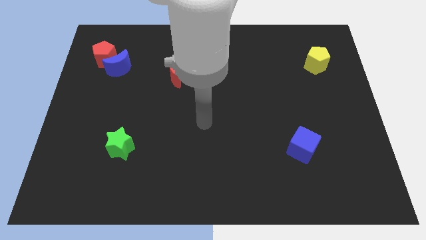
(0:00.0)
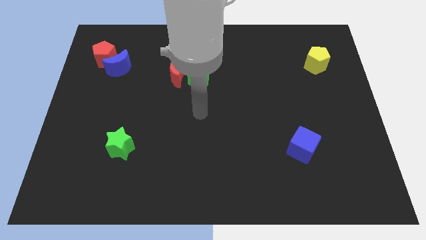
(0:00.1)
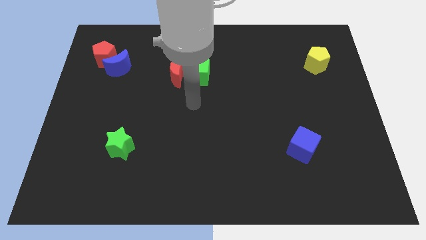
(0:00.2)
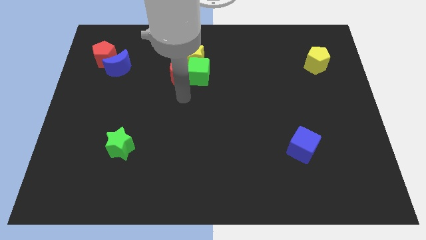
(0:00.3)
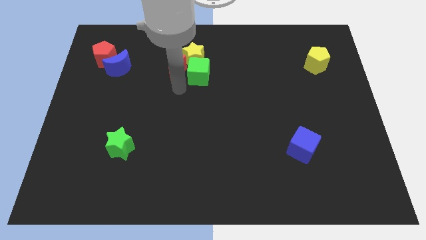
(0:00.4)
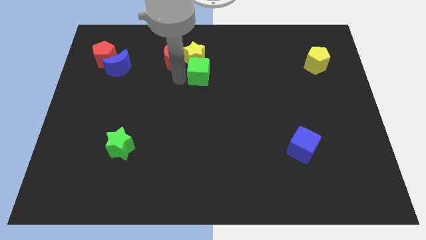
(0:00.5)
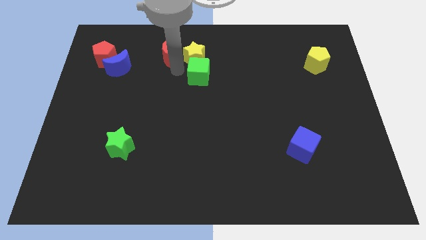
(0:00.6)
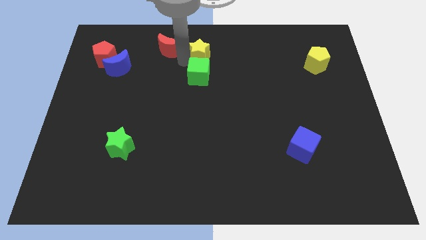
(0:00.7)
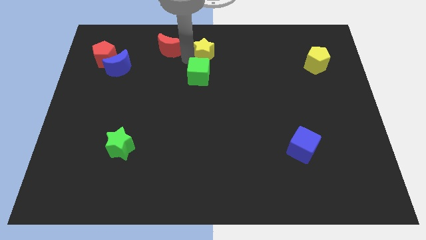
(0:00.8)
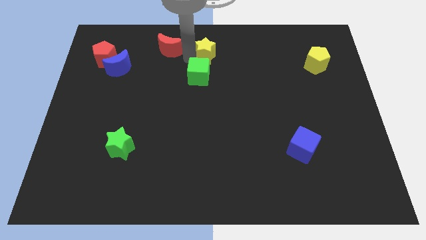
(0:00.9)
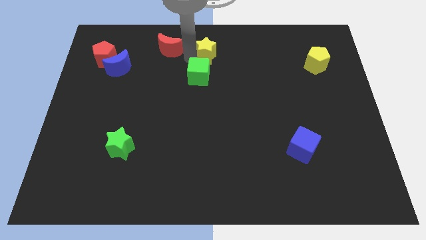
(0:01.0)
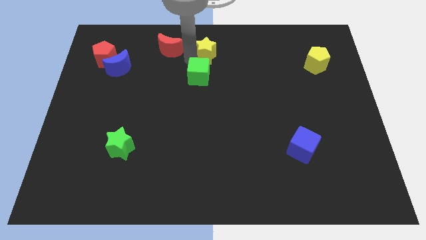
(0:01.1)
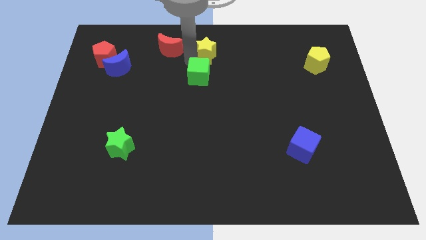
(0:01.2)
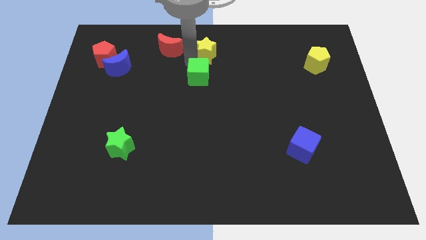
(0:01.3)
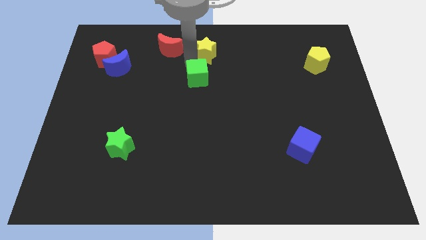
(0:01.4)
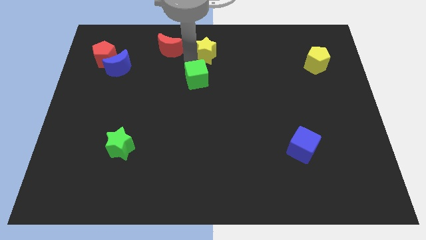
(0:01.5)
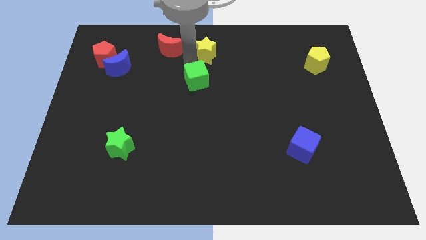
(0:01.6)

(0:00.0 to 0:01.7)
separate the green cube from the red moon and yellow star

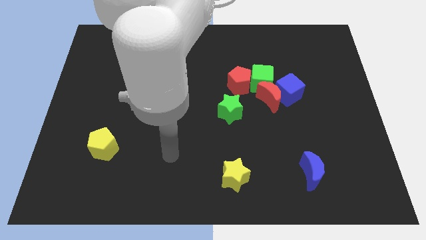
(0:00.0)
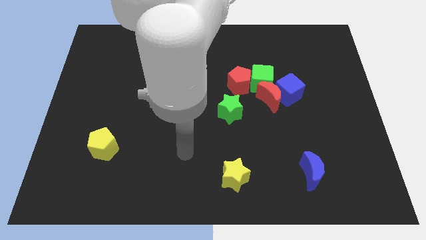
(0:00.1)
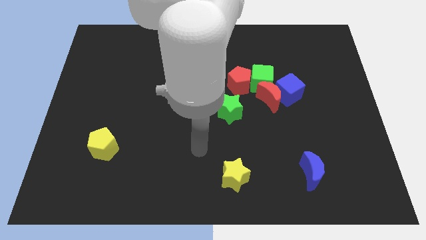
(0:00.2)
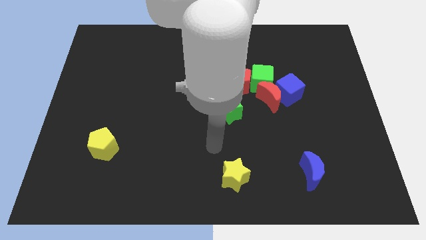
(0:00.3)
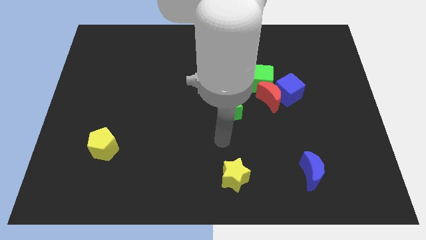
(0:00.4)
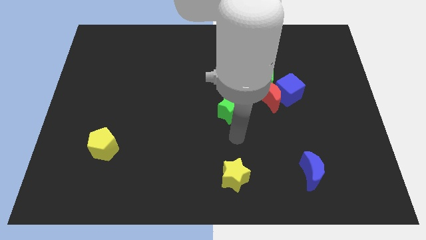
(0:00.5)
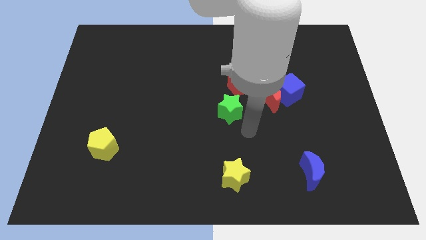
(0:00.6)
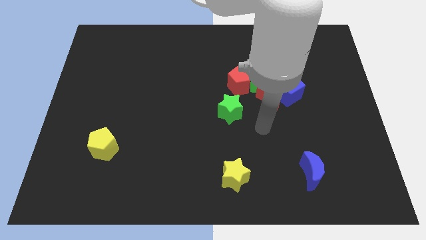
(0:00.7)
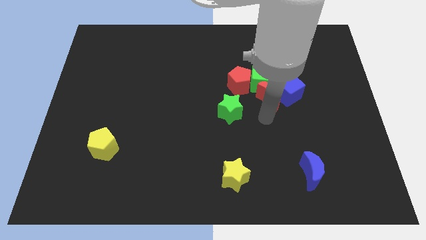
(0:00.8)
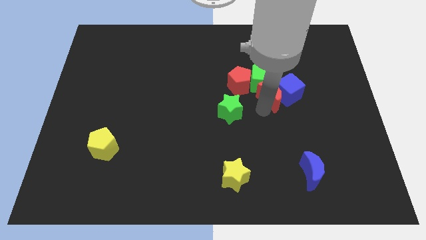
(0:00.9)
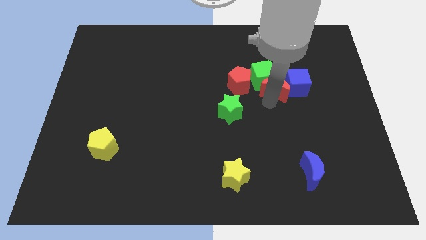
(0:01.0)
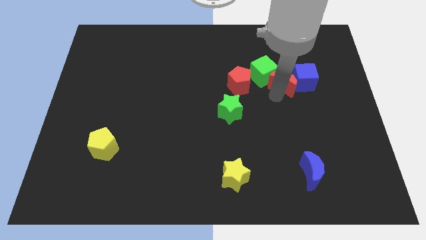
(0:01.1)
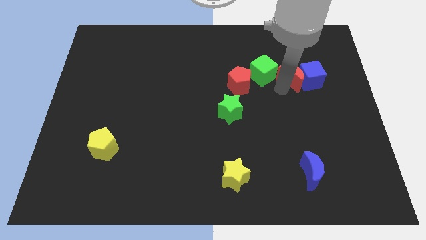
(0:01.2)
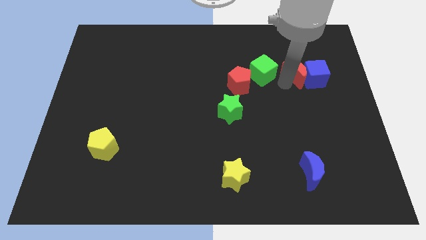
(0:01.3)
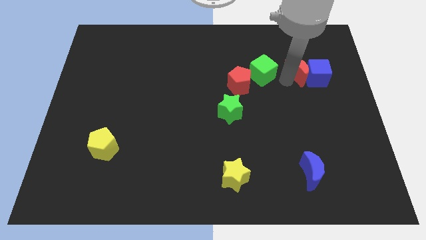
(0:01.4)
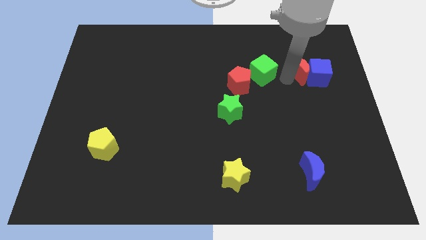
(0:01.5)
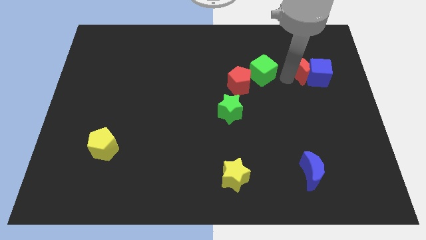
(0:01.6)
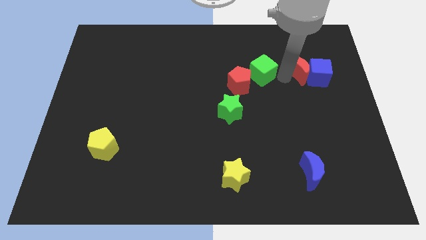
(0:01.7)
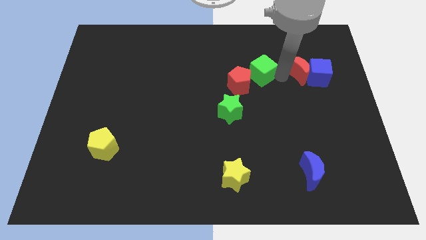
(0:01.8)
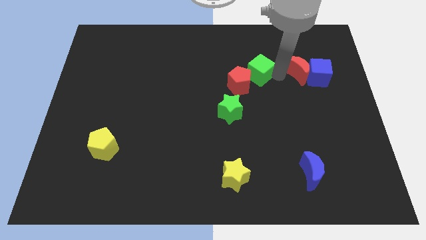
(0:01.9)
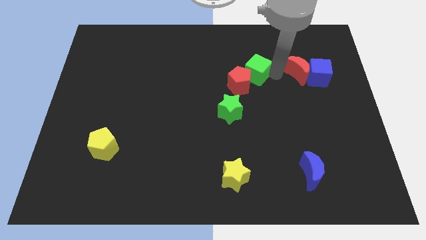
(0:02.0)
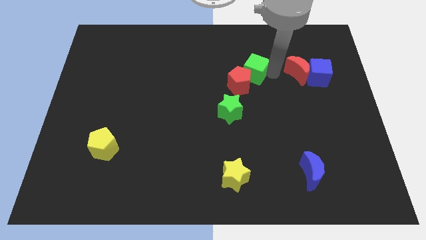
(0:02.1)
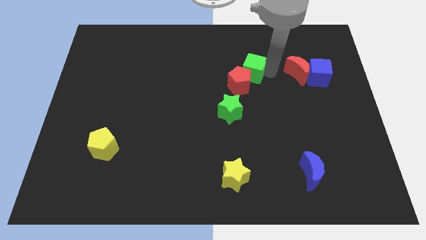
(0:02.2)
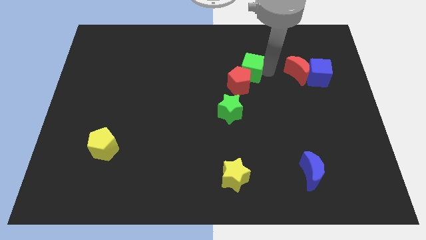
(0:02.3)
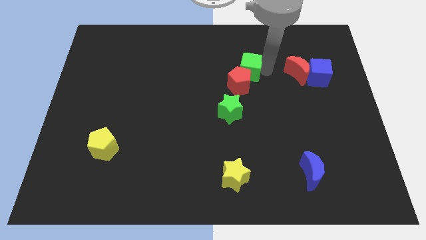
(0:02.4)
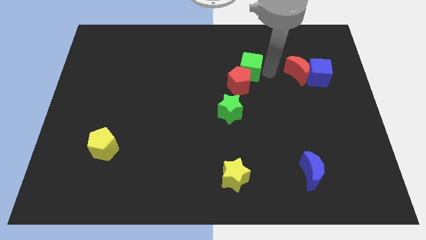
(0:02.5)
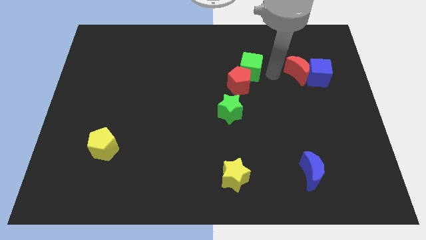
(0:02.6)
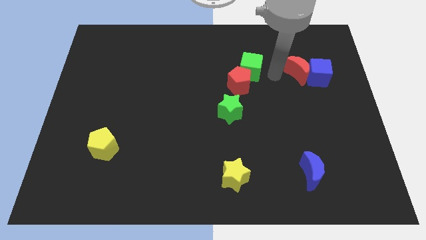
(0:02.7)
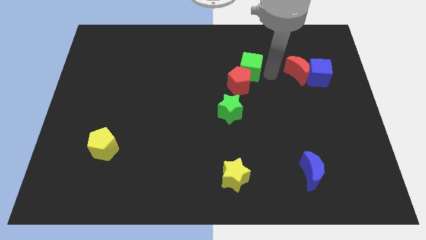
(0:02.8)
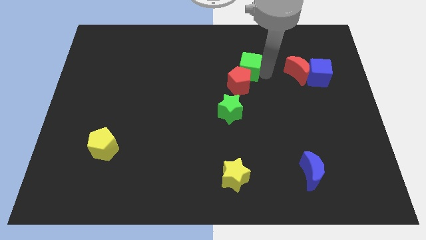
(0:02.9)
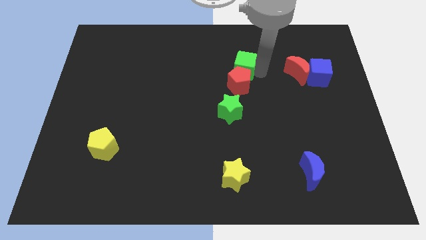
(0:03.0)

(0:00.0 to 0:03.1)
pull the green cube apart from the red pentagon, red moon, and blue cube

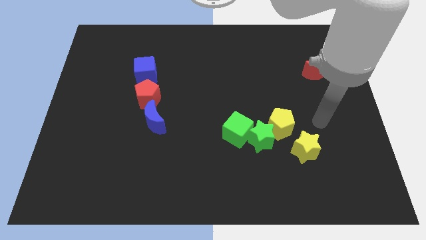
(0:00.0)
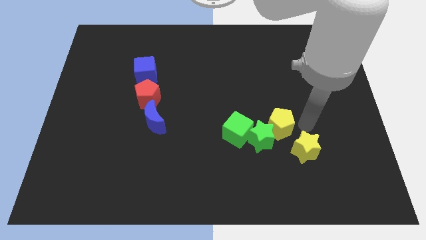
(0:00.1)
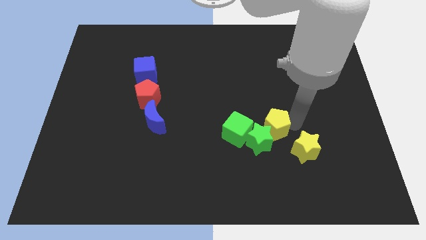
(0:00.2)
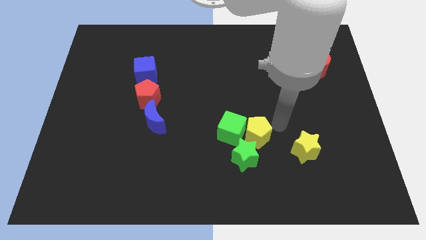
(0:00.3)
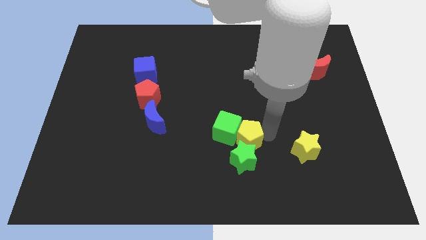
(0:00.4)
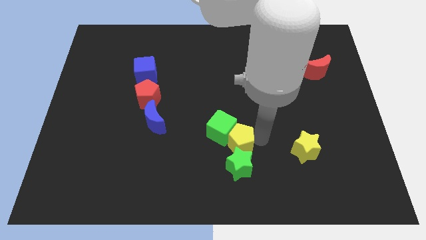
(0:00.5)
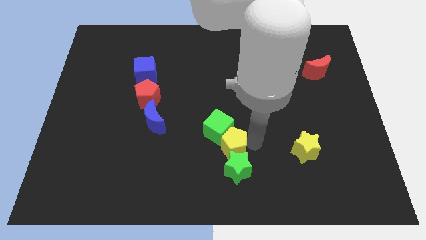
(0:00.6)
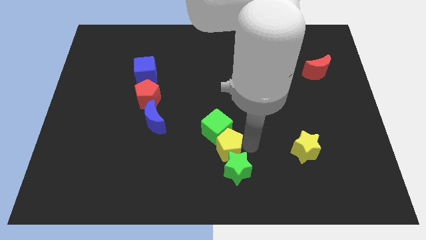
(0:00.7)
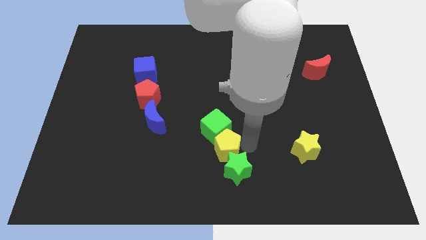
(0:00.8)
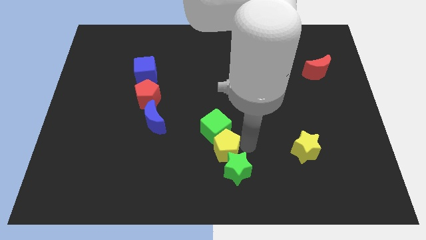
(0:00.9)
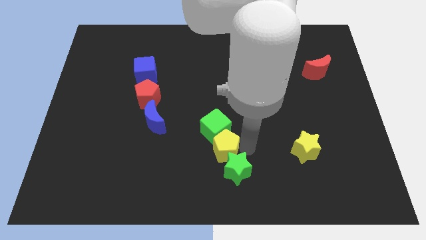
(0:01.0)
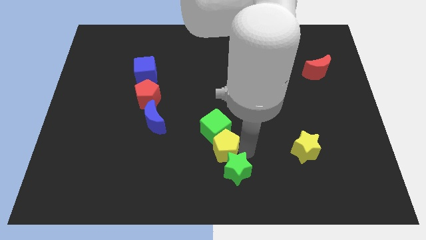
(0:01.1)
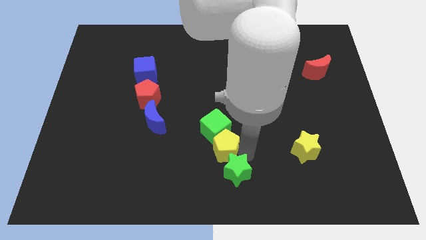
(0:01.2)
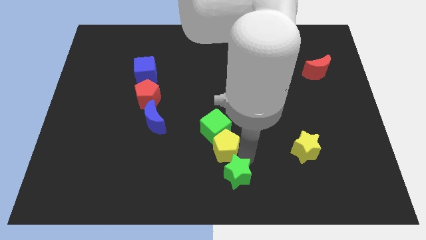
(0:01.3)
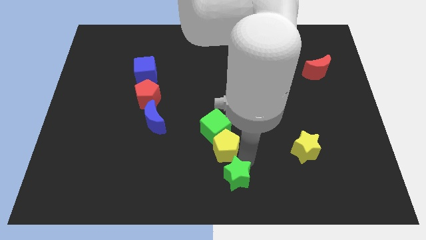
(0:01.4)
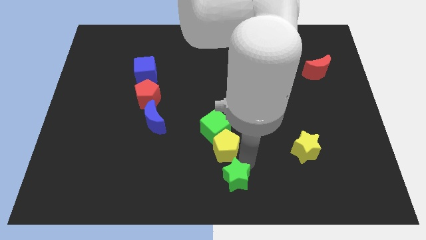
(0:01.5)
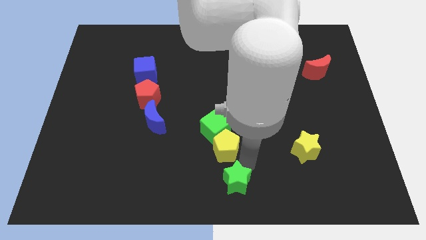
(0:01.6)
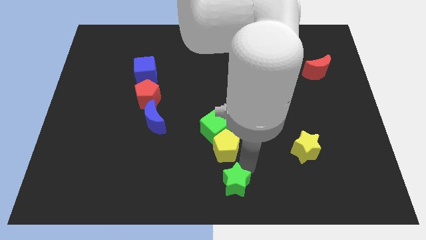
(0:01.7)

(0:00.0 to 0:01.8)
pull the green star apart from the clump

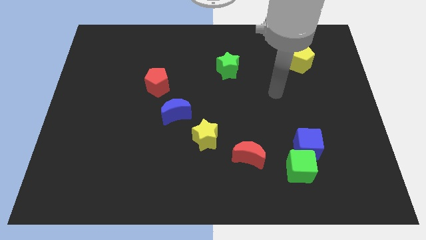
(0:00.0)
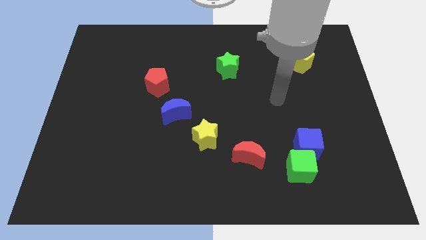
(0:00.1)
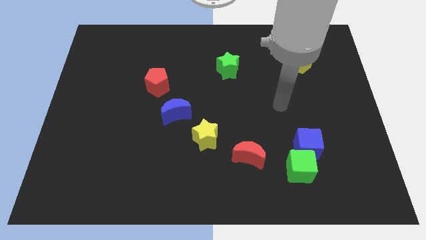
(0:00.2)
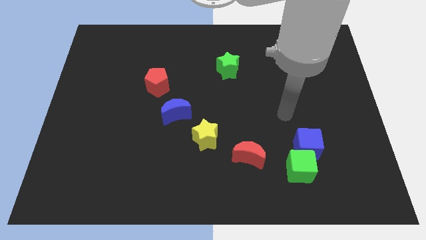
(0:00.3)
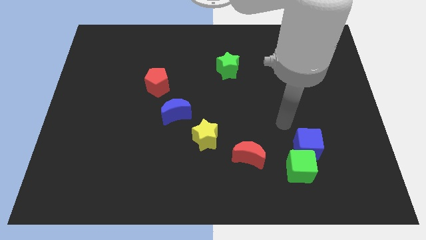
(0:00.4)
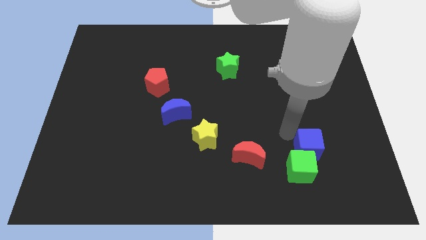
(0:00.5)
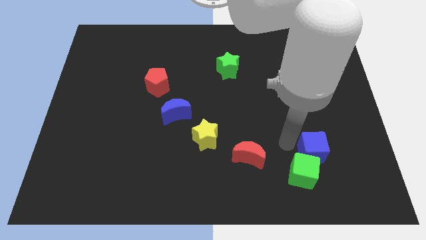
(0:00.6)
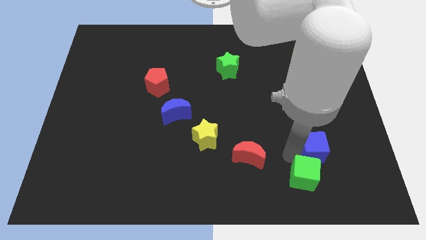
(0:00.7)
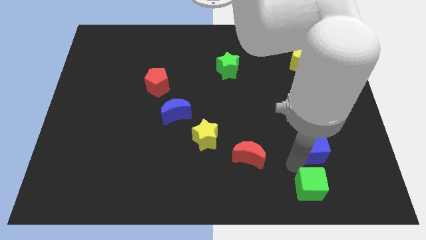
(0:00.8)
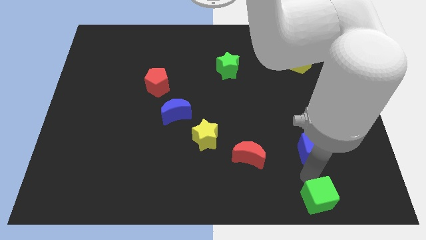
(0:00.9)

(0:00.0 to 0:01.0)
separate the blue cube from the green cube

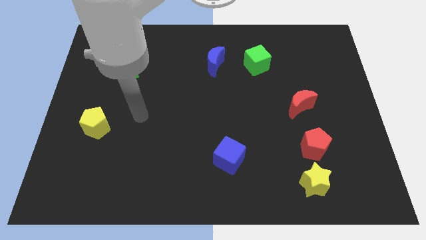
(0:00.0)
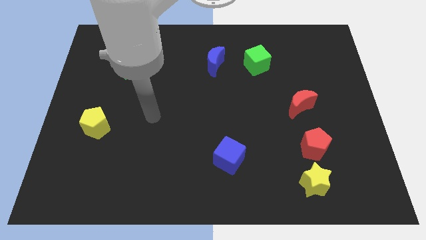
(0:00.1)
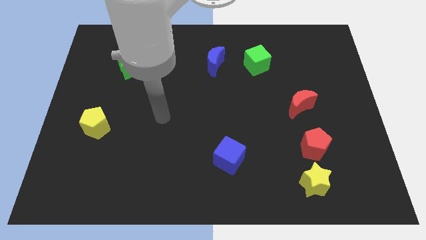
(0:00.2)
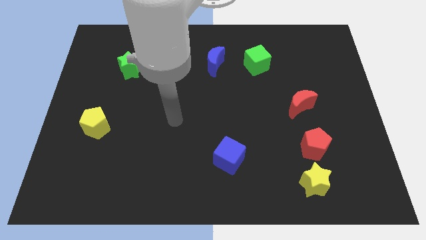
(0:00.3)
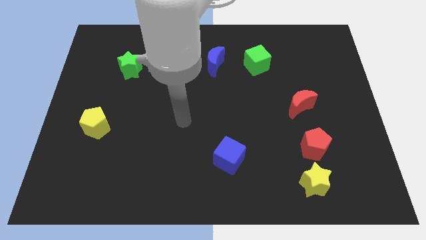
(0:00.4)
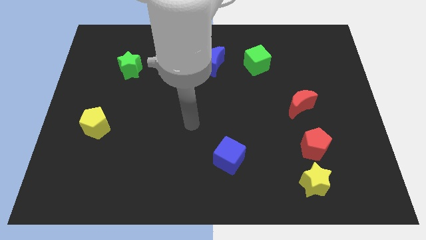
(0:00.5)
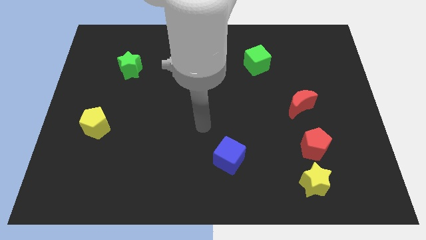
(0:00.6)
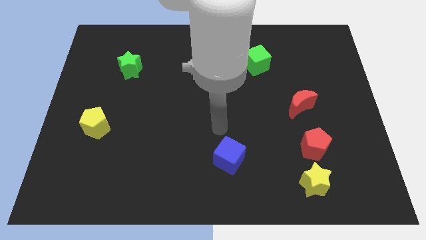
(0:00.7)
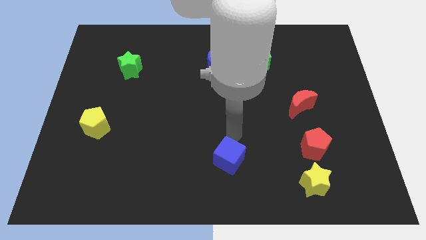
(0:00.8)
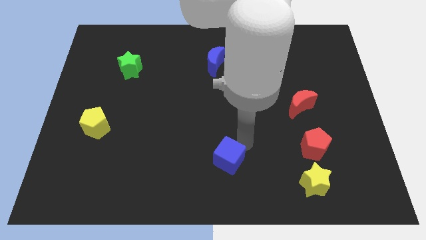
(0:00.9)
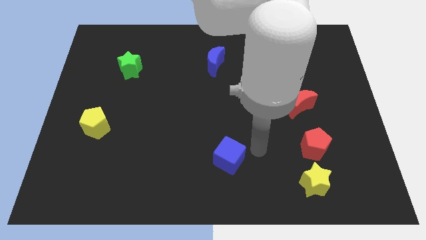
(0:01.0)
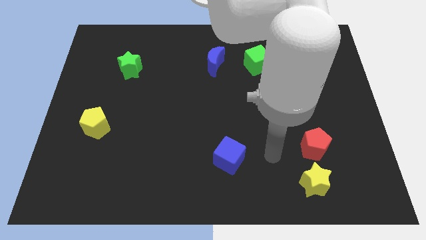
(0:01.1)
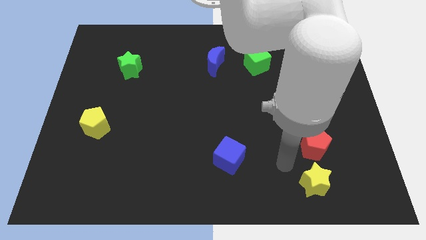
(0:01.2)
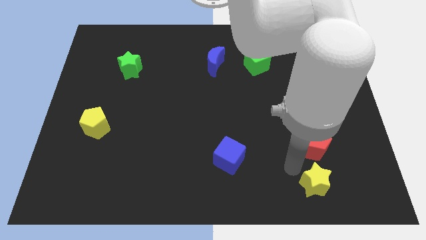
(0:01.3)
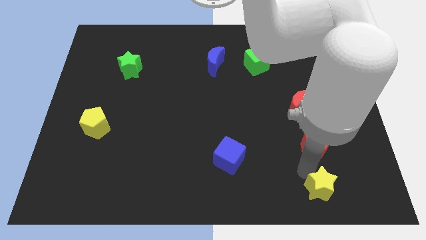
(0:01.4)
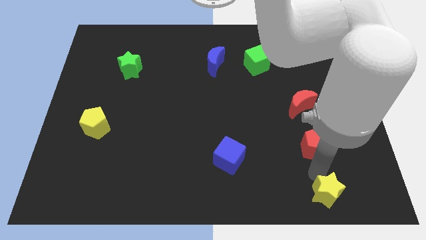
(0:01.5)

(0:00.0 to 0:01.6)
separate the red pentagon from the yellow star

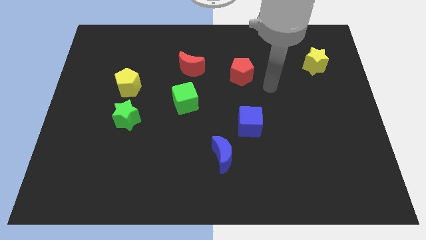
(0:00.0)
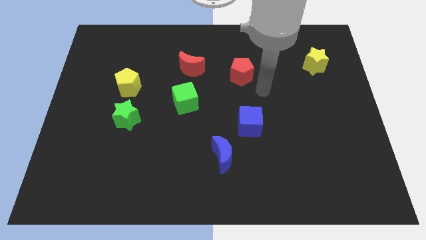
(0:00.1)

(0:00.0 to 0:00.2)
move the blue moon away from the blue cube
